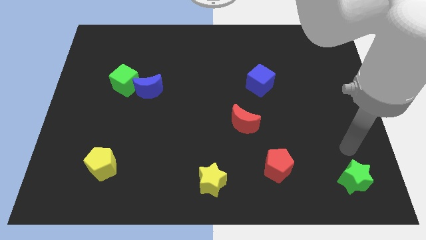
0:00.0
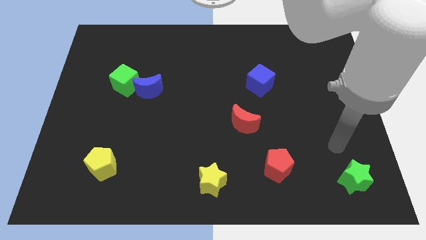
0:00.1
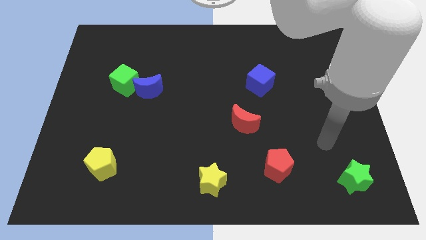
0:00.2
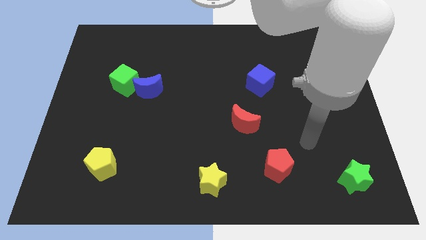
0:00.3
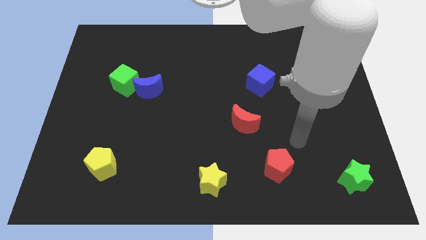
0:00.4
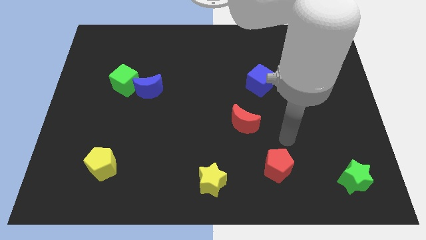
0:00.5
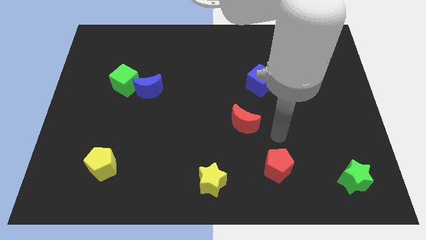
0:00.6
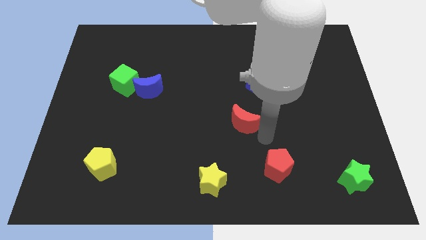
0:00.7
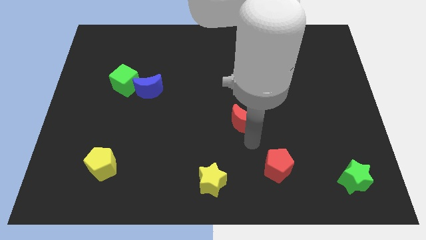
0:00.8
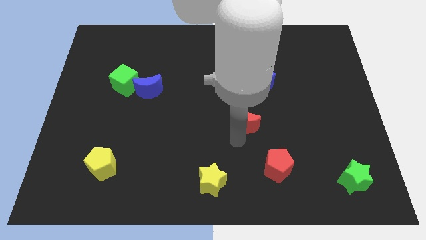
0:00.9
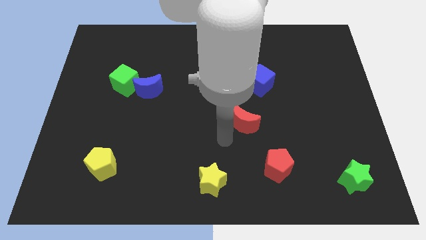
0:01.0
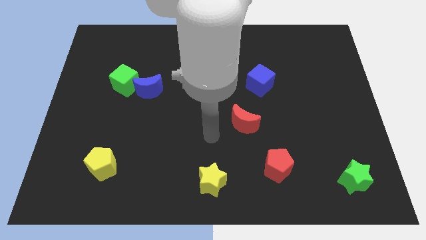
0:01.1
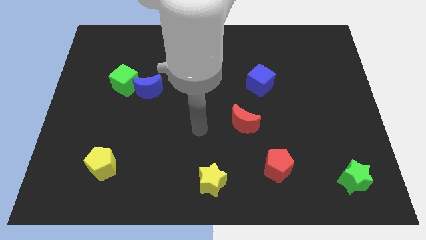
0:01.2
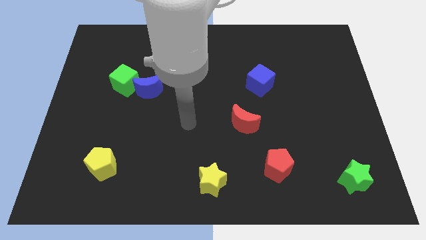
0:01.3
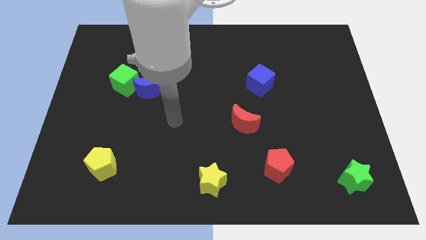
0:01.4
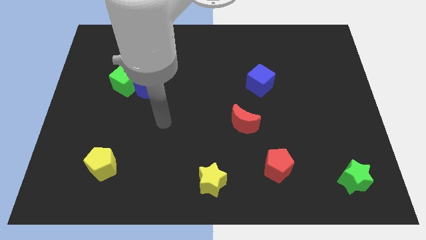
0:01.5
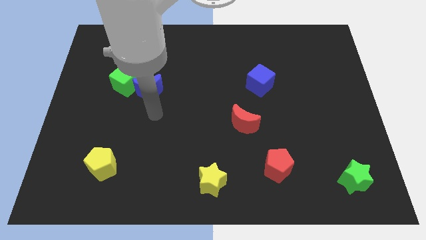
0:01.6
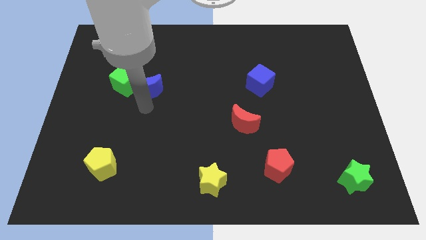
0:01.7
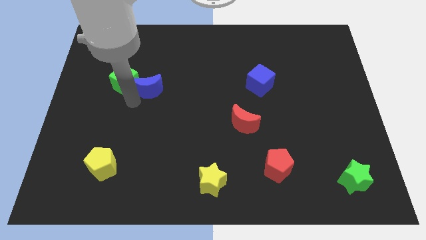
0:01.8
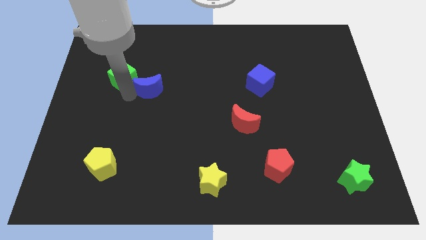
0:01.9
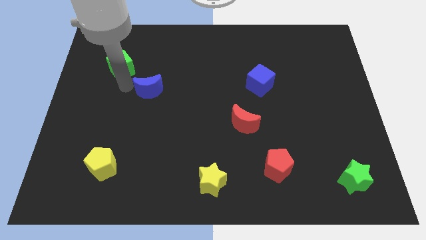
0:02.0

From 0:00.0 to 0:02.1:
separate the blue moon from the green cube

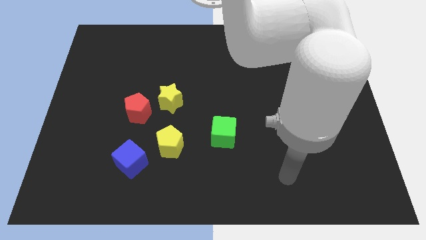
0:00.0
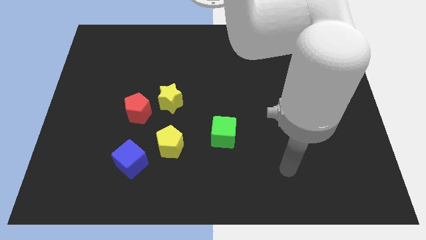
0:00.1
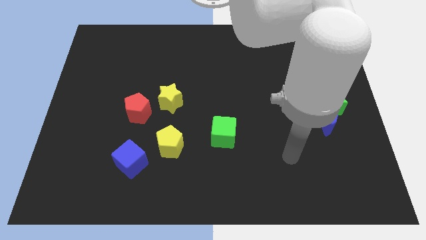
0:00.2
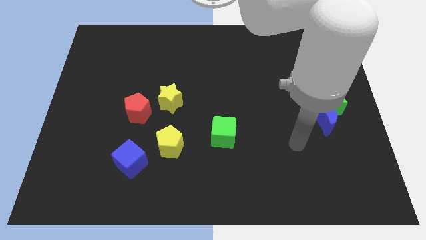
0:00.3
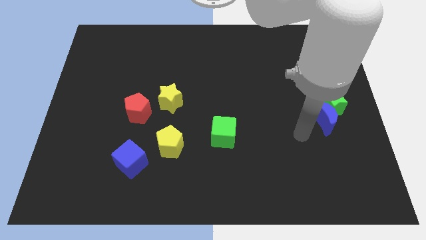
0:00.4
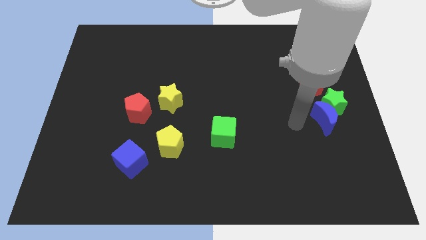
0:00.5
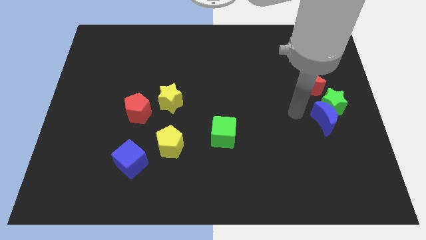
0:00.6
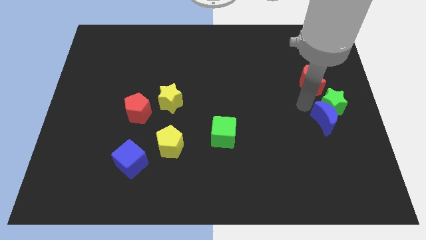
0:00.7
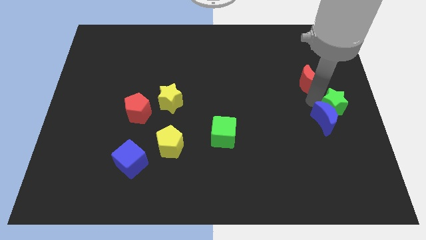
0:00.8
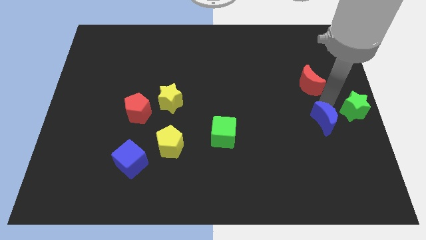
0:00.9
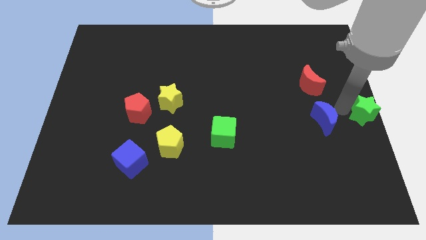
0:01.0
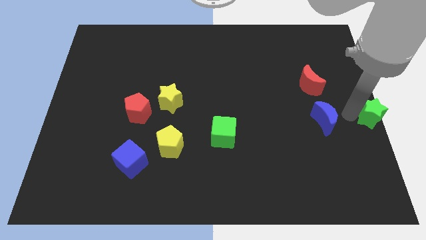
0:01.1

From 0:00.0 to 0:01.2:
move the blue moon away from the green star

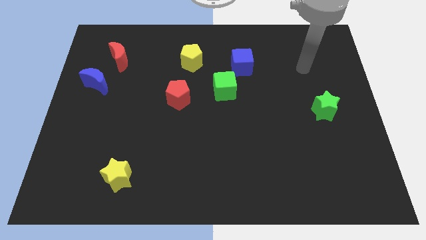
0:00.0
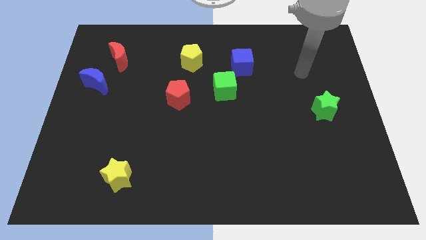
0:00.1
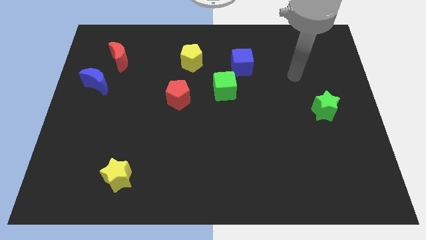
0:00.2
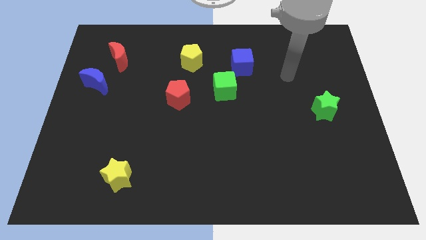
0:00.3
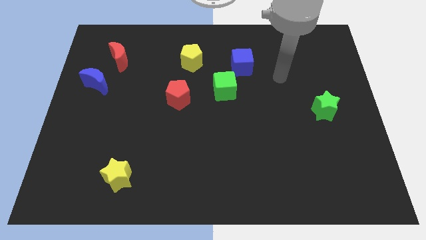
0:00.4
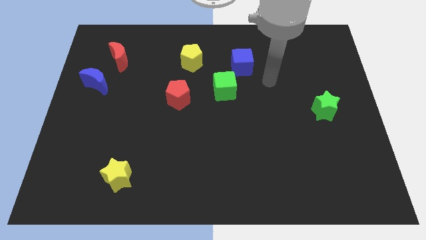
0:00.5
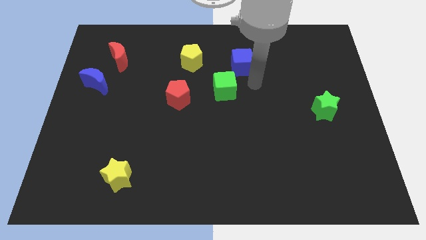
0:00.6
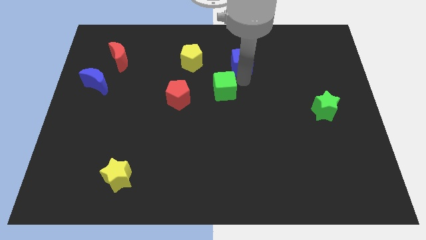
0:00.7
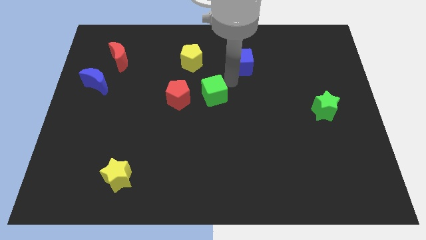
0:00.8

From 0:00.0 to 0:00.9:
pull the blue cube apart from the green cube

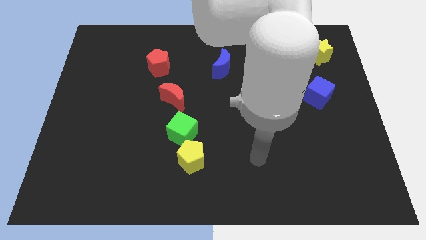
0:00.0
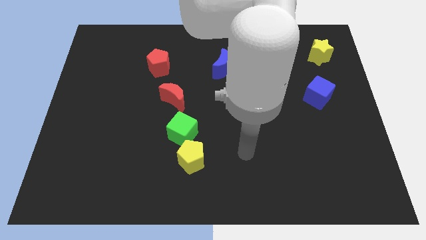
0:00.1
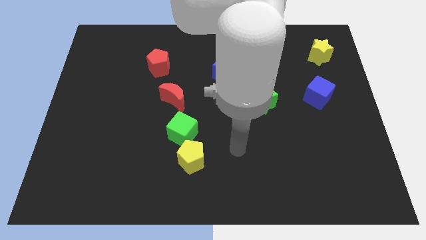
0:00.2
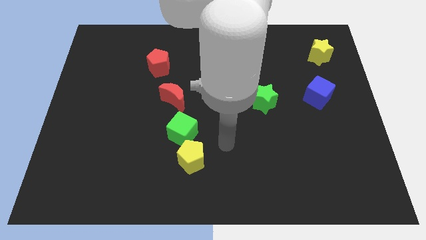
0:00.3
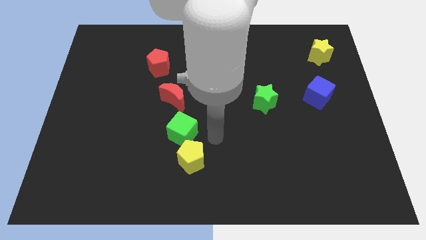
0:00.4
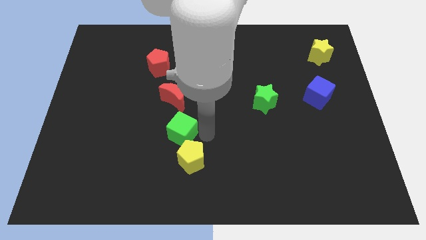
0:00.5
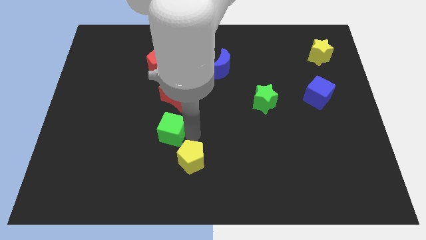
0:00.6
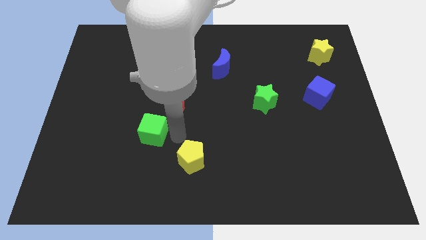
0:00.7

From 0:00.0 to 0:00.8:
pull the yellow pentagon apart from the green cube

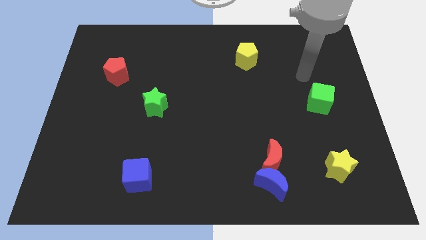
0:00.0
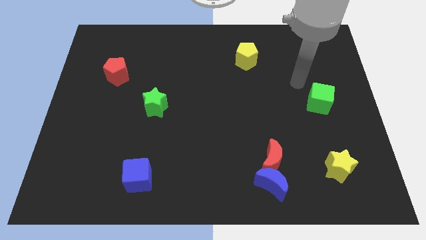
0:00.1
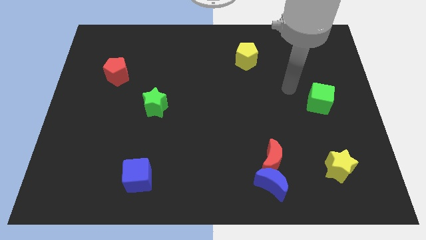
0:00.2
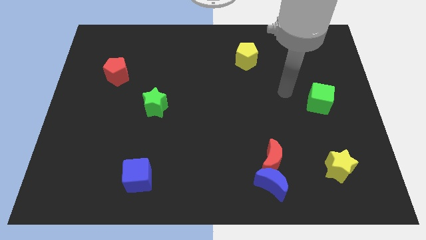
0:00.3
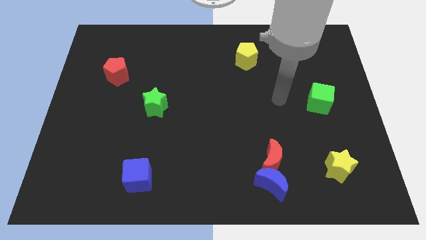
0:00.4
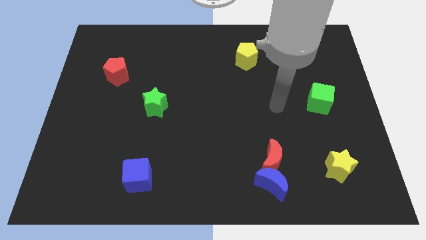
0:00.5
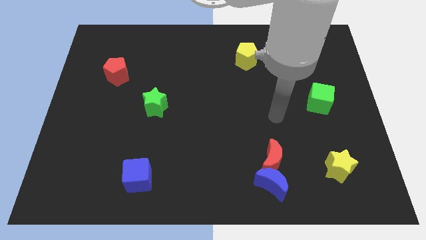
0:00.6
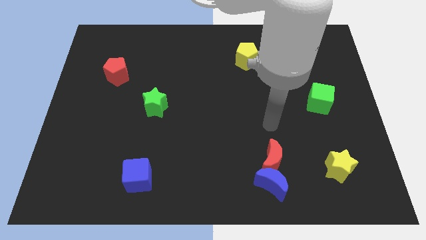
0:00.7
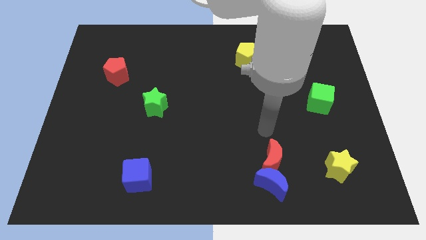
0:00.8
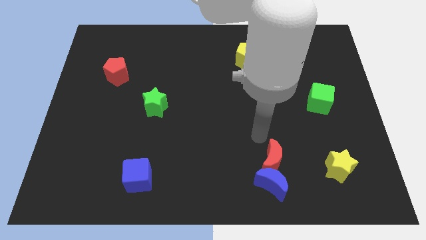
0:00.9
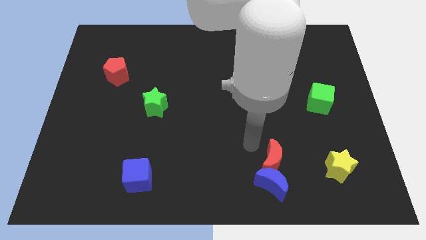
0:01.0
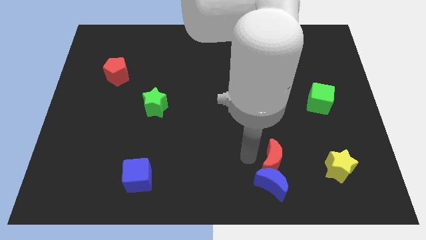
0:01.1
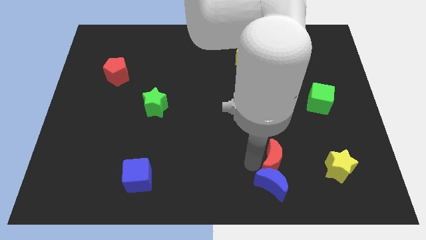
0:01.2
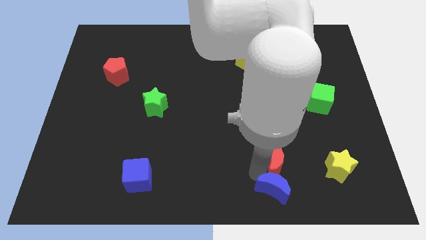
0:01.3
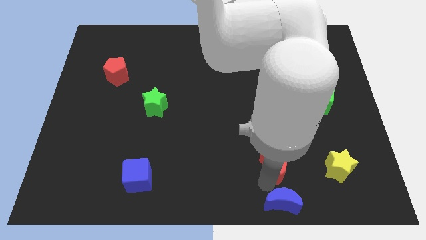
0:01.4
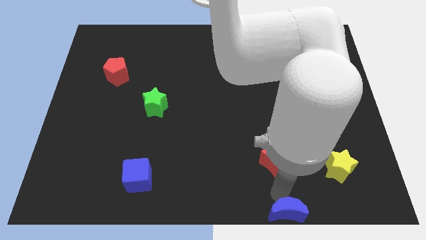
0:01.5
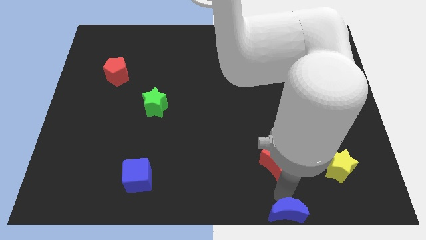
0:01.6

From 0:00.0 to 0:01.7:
move the red moon away from the blue moon

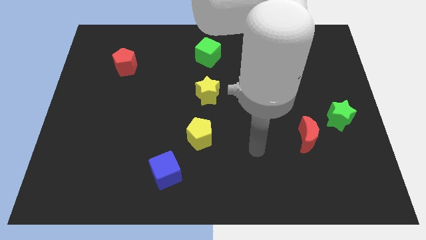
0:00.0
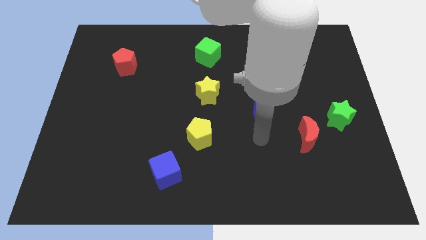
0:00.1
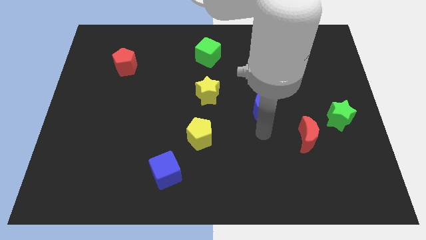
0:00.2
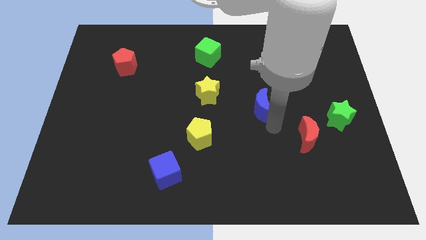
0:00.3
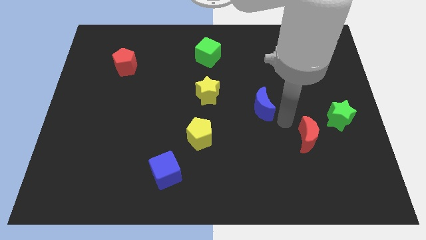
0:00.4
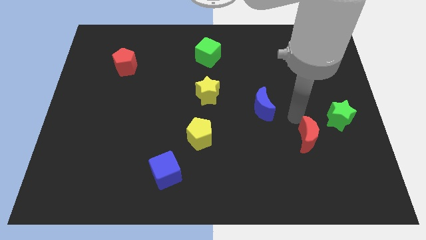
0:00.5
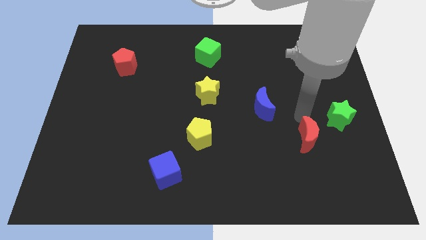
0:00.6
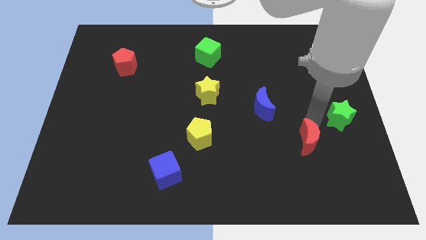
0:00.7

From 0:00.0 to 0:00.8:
pull the red moon apart from the green star

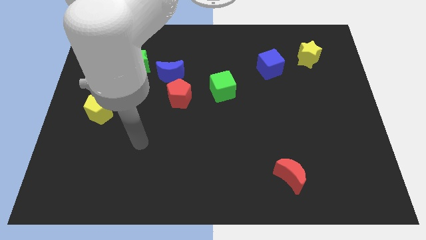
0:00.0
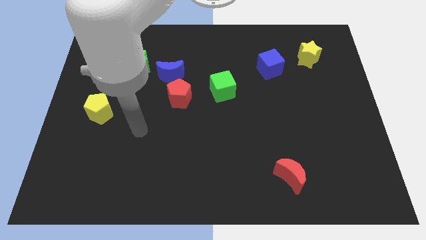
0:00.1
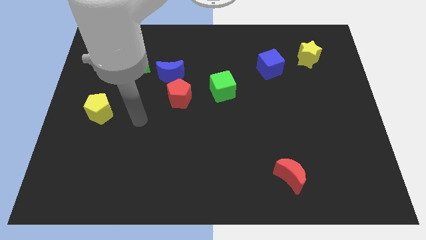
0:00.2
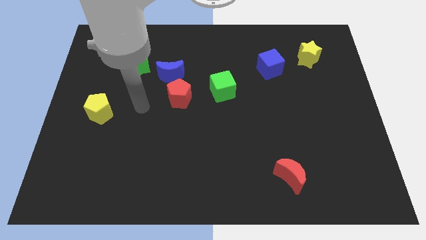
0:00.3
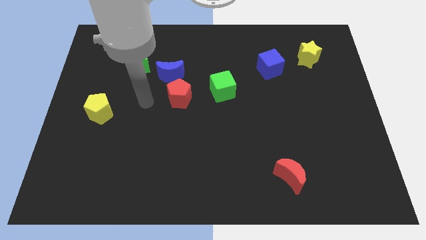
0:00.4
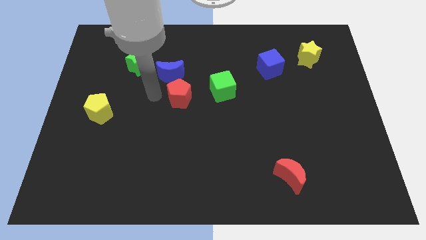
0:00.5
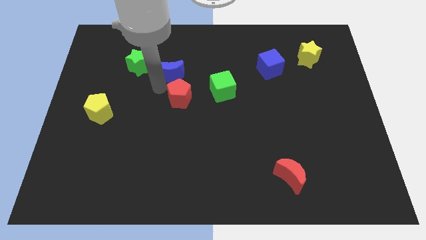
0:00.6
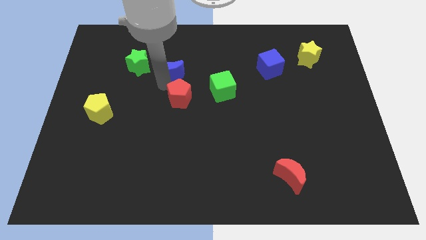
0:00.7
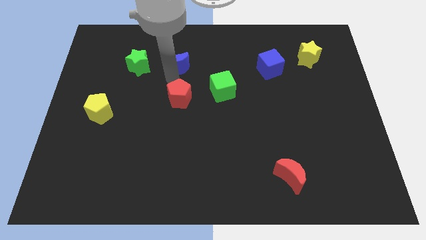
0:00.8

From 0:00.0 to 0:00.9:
separate the red pentagon from the blue moon

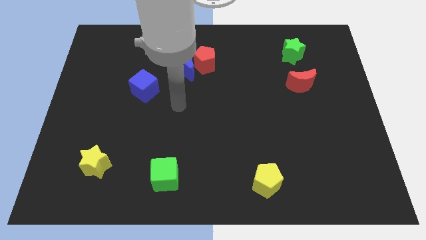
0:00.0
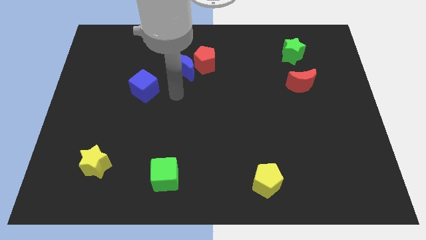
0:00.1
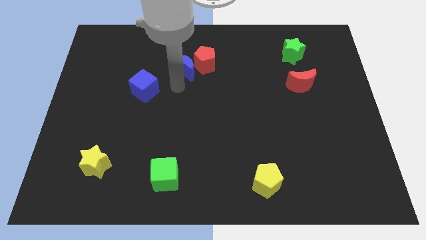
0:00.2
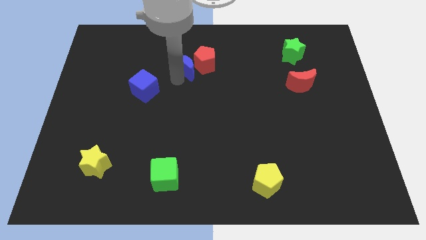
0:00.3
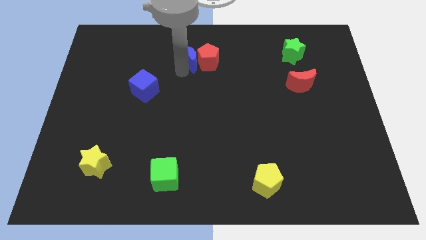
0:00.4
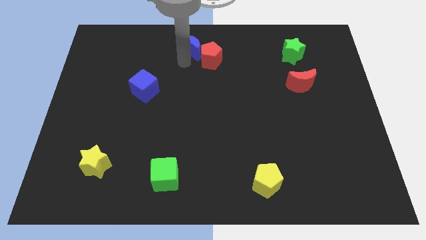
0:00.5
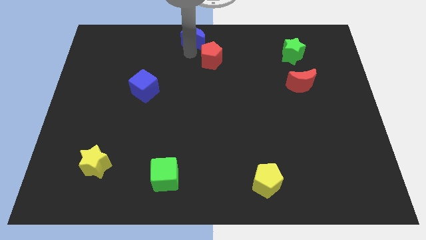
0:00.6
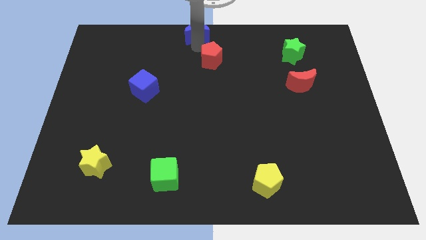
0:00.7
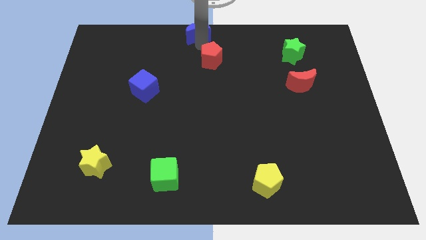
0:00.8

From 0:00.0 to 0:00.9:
move the red pentagon away from the blue moon
